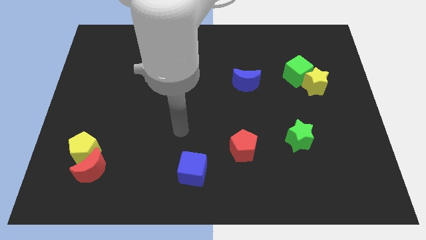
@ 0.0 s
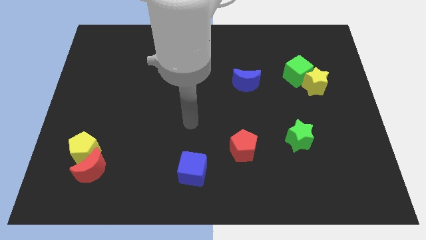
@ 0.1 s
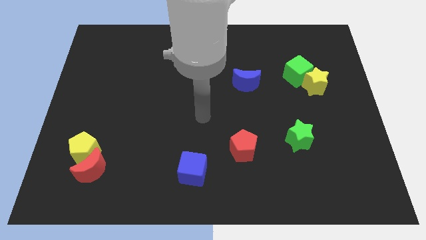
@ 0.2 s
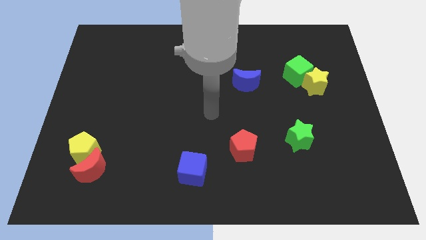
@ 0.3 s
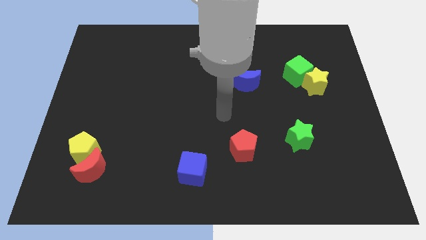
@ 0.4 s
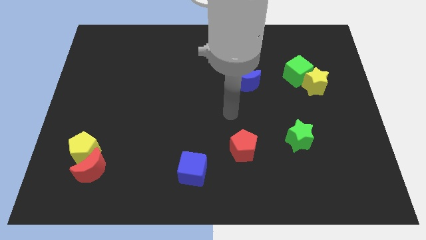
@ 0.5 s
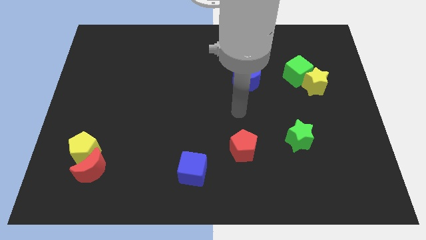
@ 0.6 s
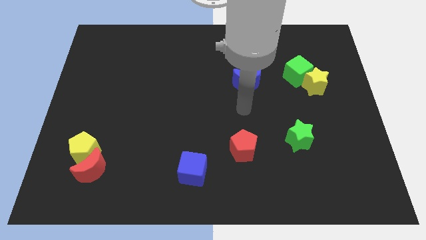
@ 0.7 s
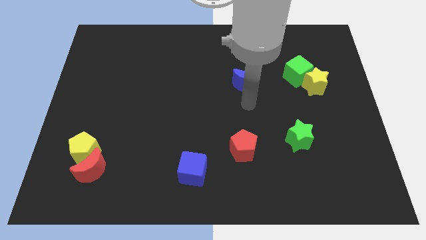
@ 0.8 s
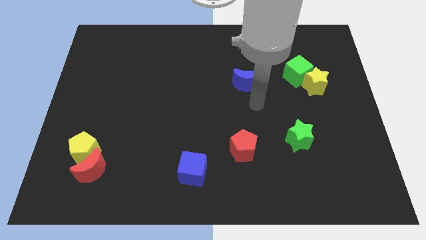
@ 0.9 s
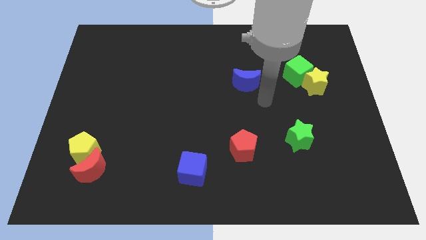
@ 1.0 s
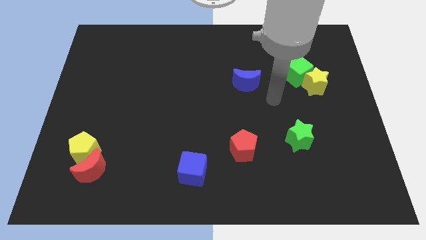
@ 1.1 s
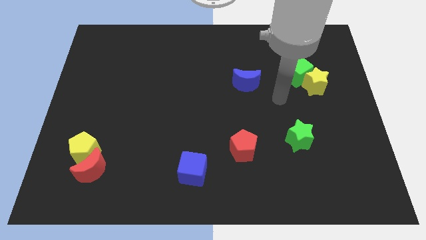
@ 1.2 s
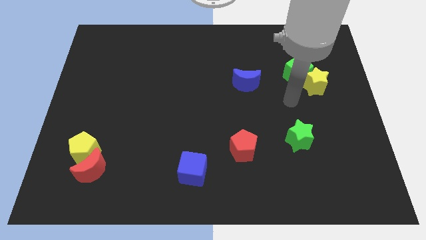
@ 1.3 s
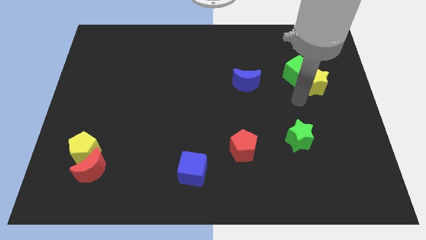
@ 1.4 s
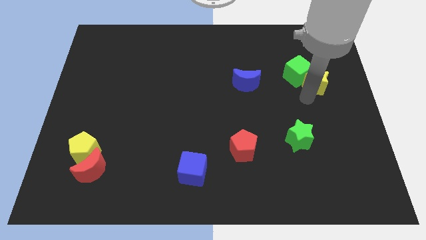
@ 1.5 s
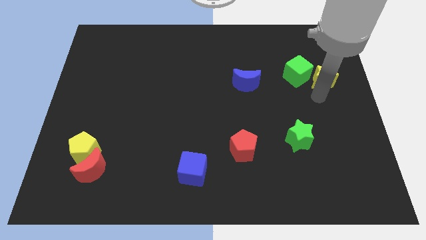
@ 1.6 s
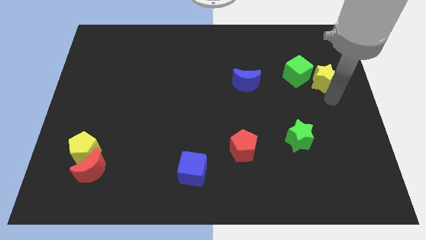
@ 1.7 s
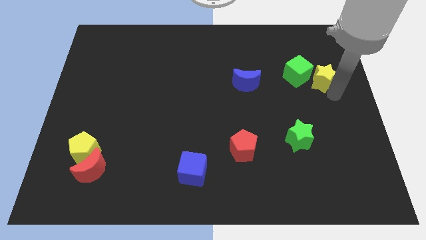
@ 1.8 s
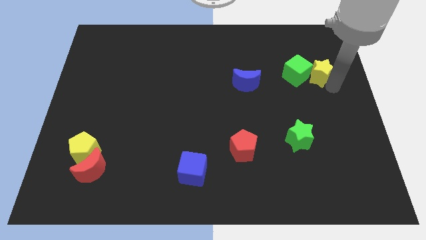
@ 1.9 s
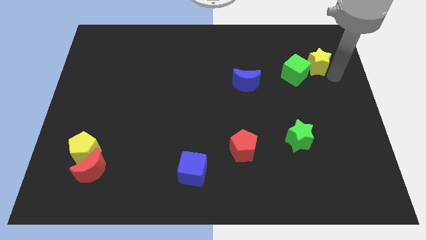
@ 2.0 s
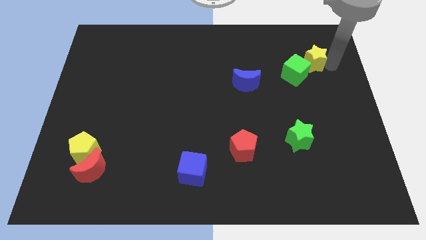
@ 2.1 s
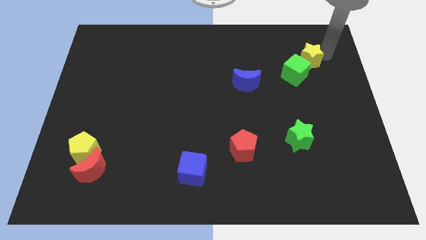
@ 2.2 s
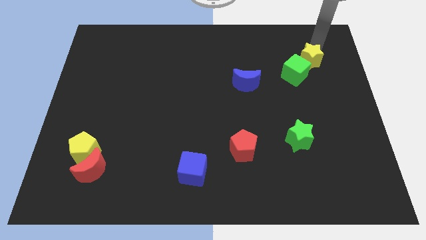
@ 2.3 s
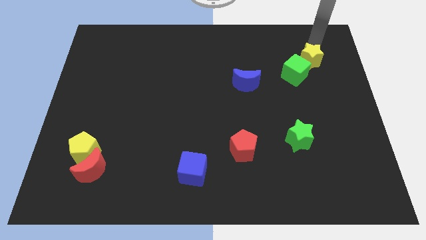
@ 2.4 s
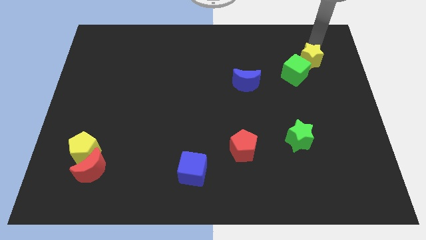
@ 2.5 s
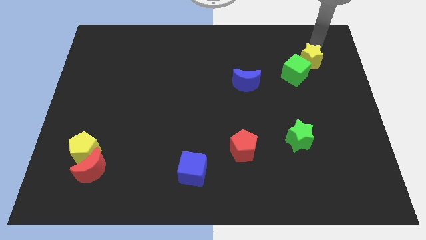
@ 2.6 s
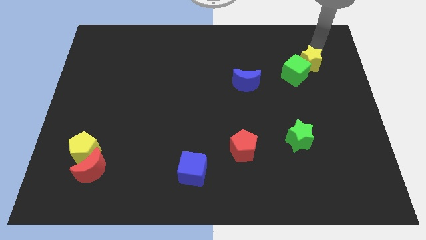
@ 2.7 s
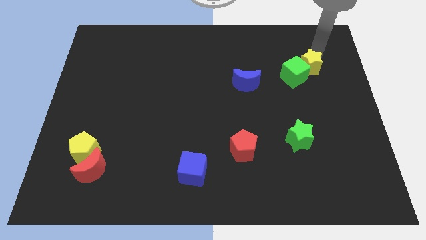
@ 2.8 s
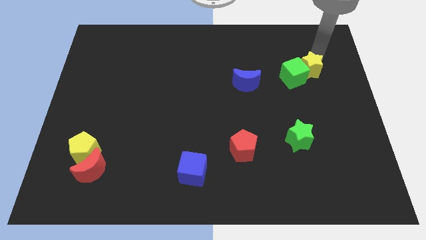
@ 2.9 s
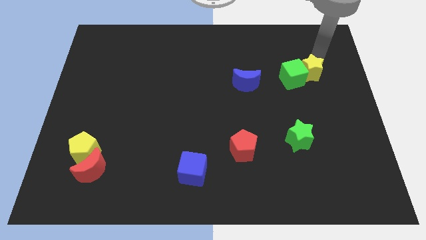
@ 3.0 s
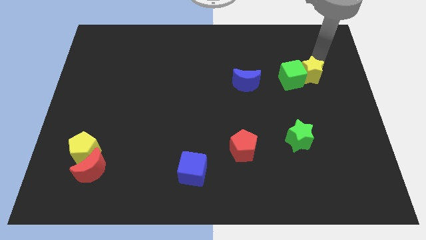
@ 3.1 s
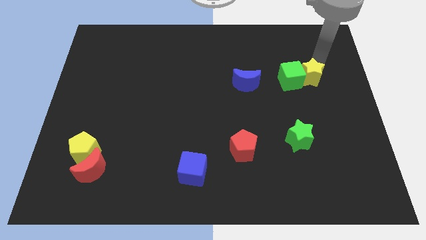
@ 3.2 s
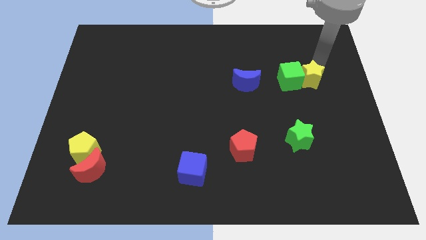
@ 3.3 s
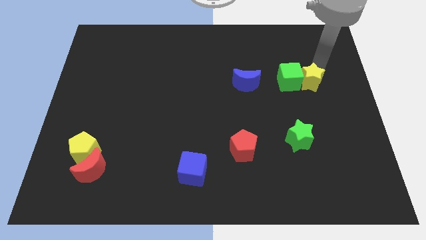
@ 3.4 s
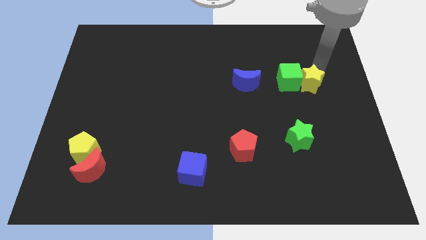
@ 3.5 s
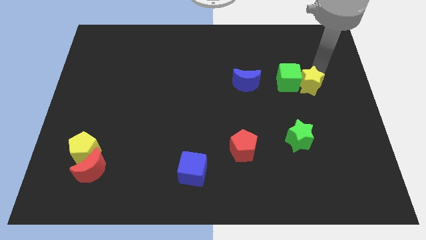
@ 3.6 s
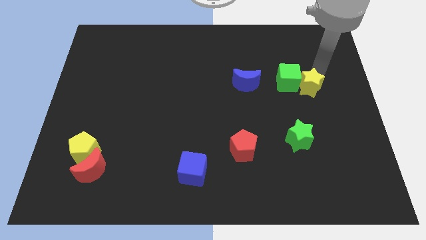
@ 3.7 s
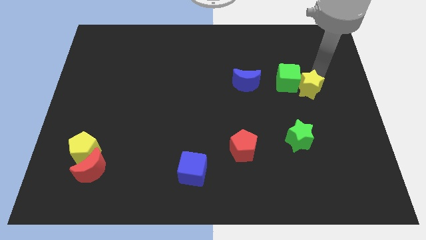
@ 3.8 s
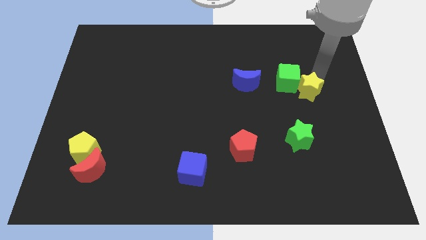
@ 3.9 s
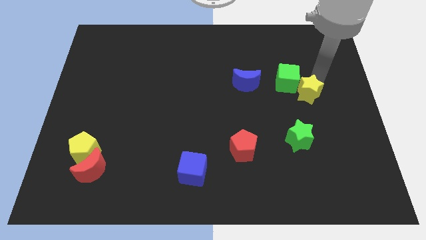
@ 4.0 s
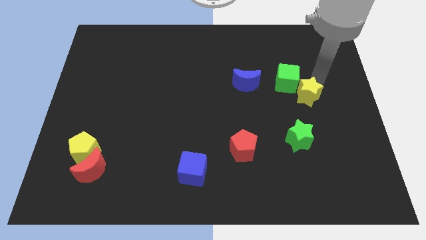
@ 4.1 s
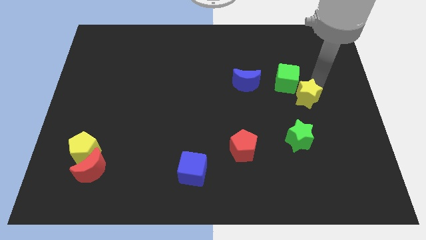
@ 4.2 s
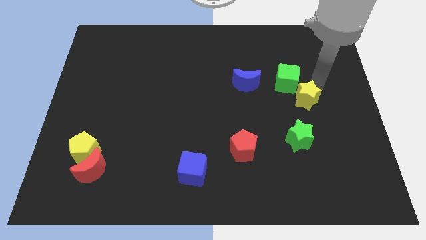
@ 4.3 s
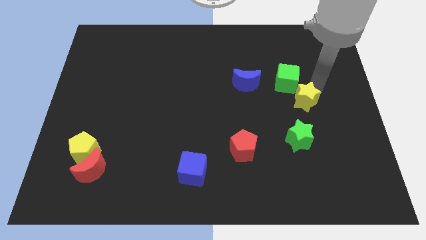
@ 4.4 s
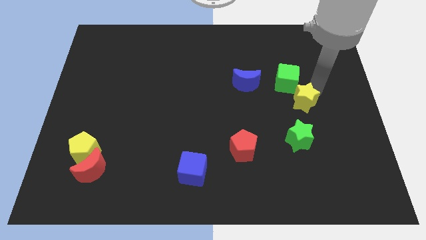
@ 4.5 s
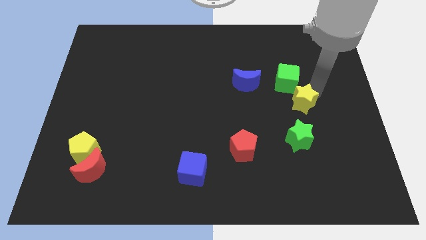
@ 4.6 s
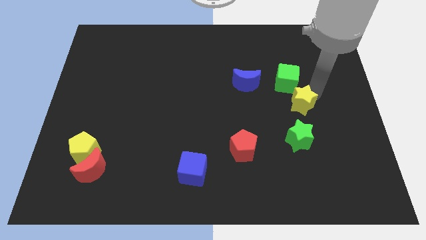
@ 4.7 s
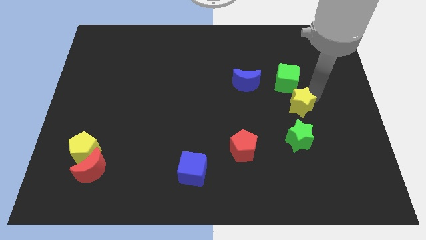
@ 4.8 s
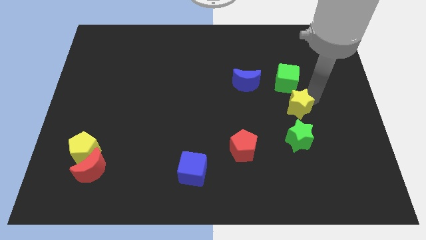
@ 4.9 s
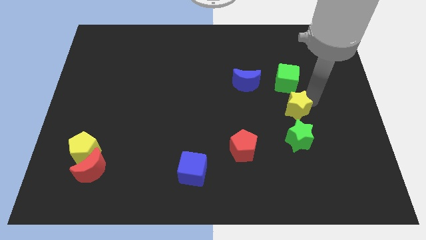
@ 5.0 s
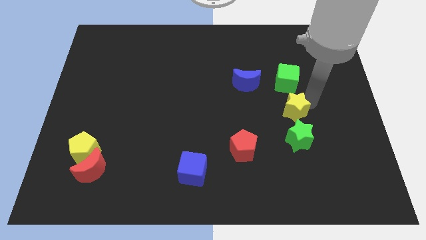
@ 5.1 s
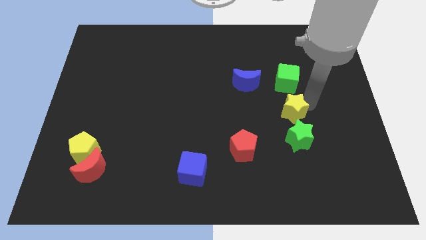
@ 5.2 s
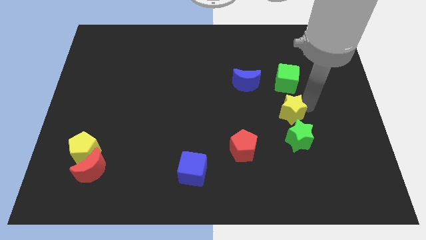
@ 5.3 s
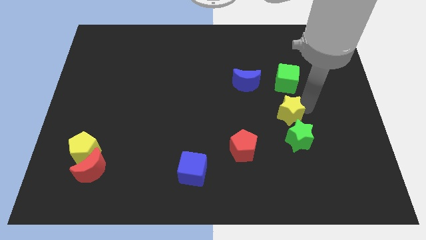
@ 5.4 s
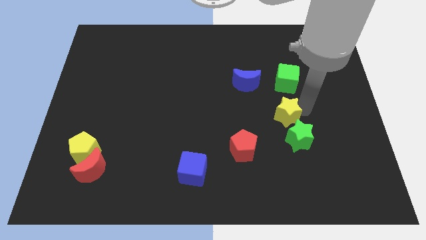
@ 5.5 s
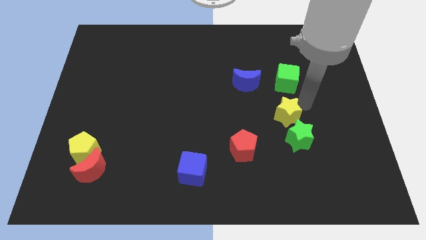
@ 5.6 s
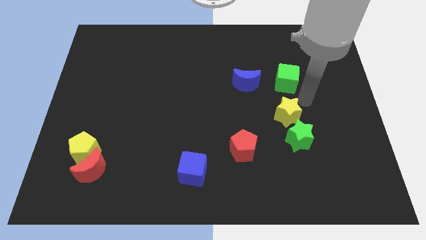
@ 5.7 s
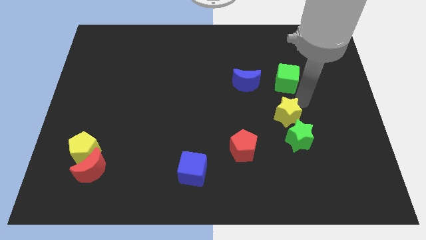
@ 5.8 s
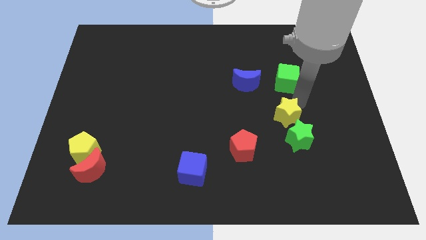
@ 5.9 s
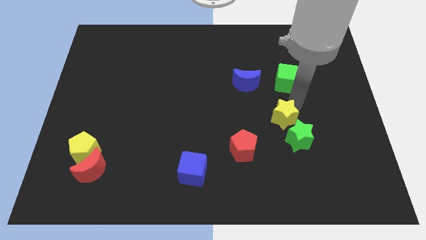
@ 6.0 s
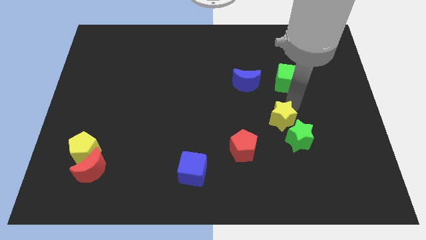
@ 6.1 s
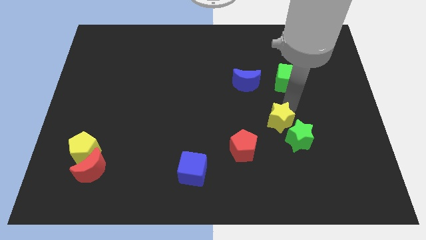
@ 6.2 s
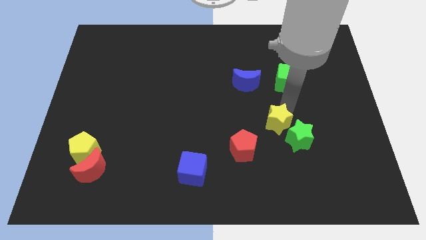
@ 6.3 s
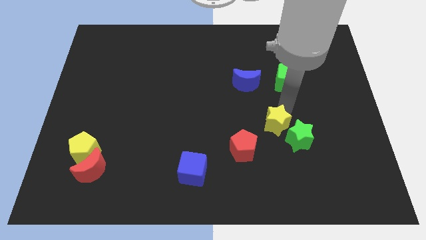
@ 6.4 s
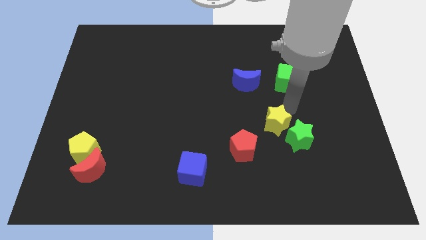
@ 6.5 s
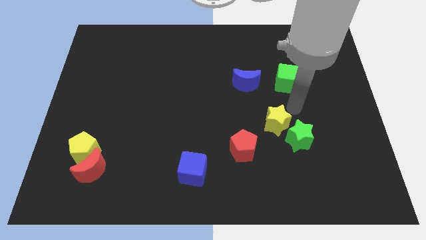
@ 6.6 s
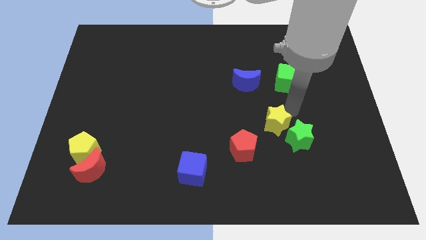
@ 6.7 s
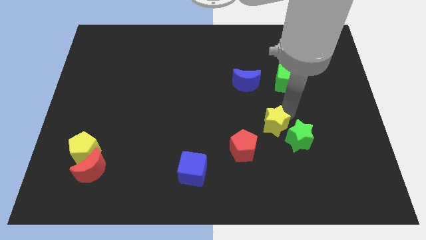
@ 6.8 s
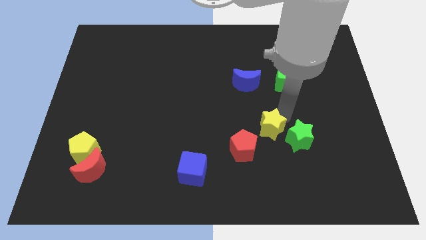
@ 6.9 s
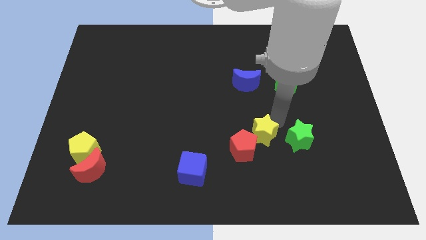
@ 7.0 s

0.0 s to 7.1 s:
put the yellow star next to the red pentagon
